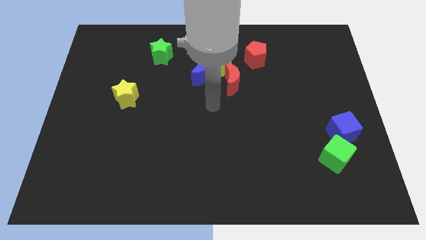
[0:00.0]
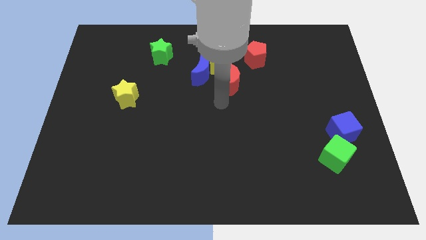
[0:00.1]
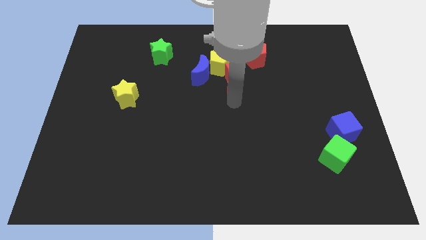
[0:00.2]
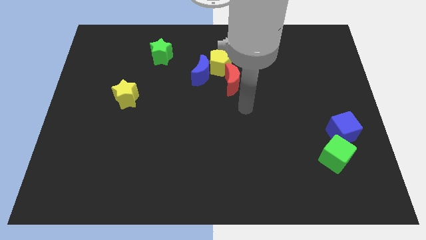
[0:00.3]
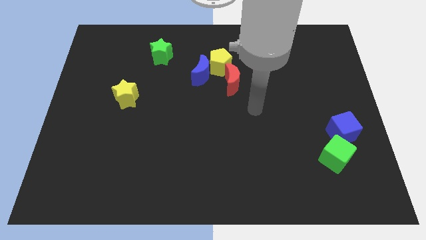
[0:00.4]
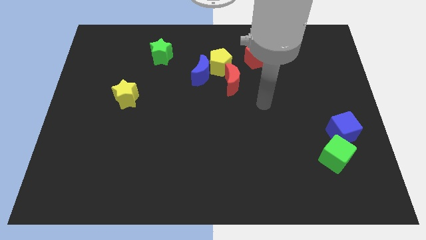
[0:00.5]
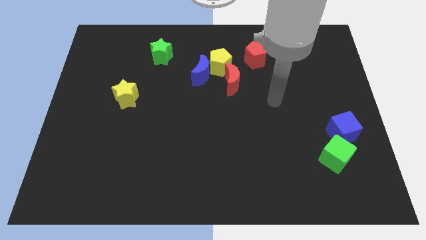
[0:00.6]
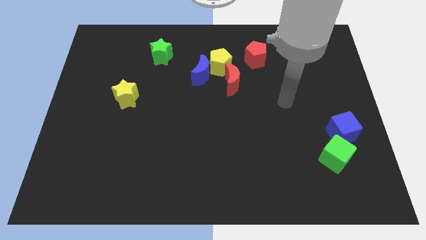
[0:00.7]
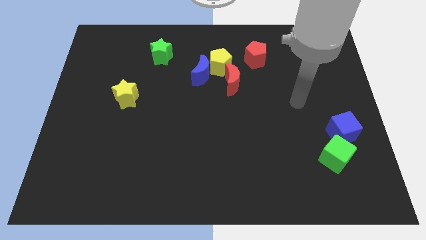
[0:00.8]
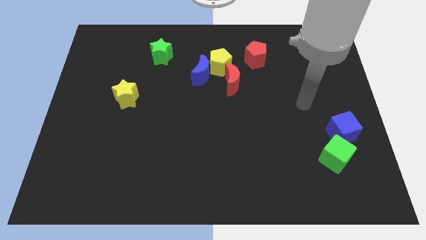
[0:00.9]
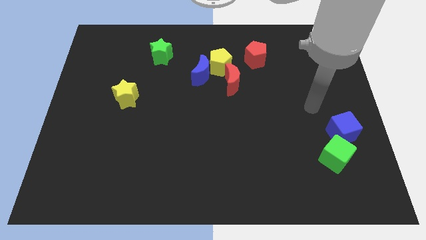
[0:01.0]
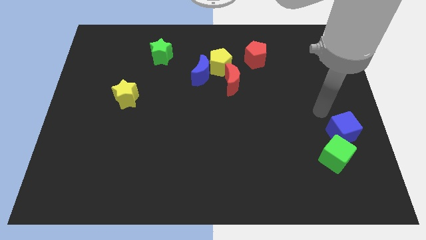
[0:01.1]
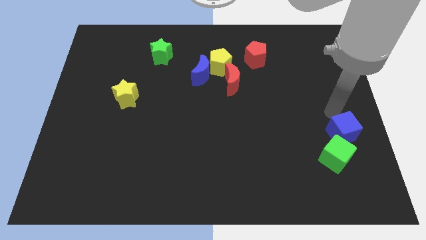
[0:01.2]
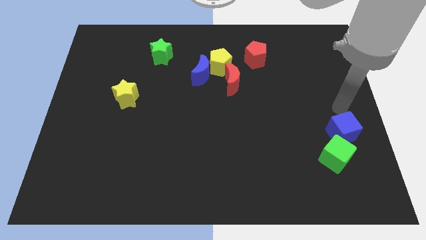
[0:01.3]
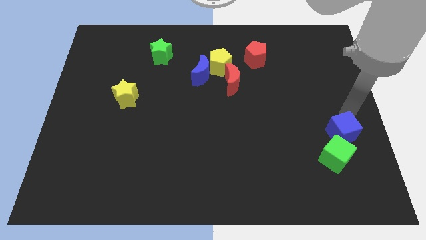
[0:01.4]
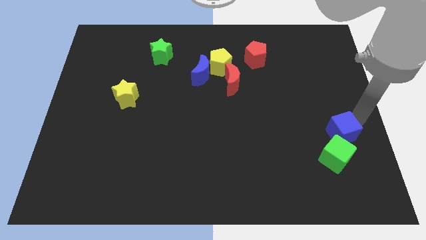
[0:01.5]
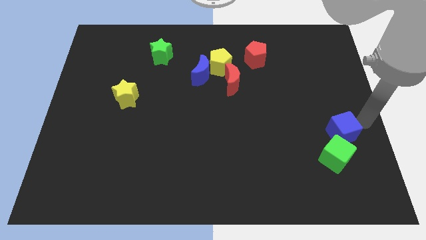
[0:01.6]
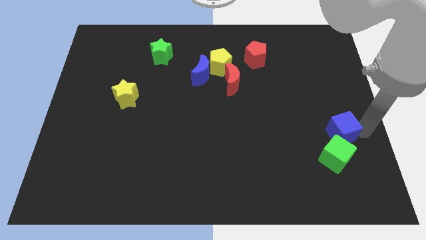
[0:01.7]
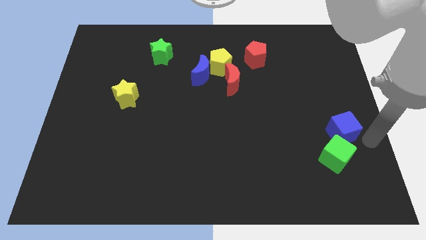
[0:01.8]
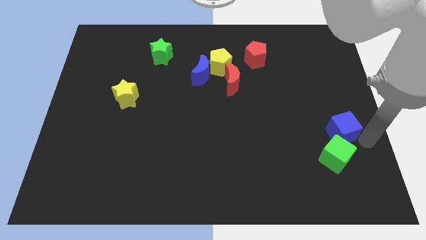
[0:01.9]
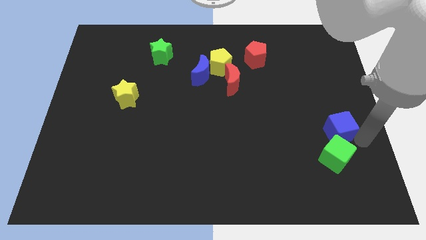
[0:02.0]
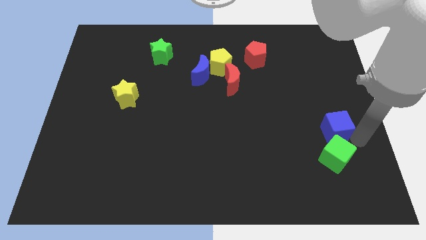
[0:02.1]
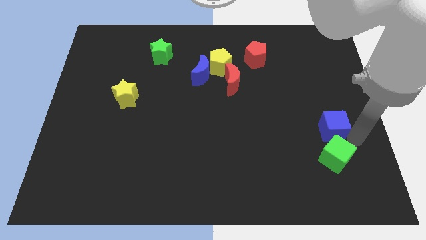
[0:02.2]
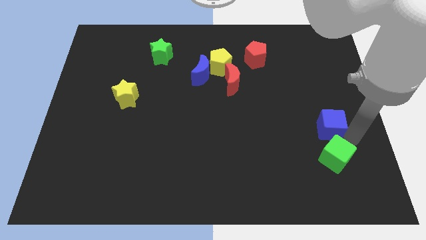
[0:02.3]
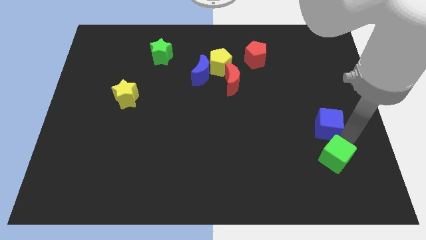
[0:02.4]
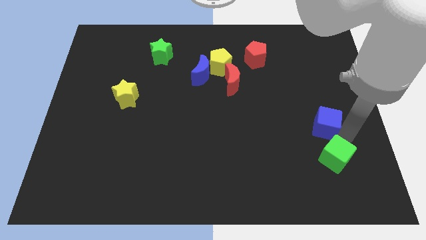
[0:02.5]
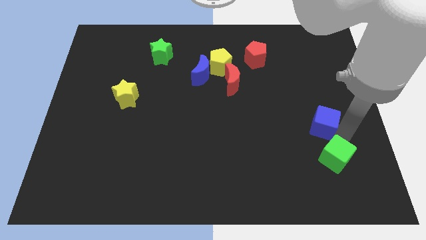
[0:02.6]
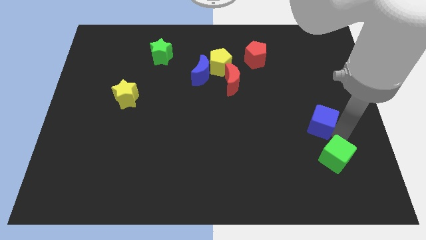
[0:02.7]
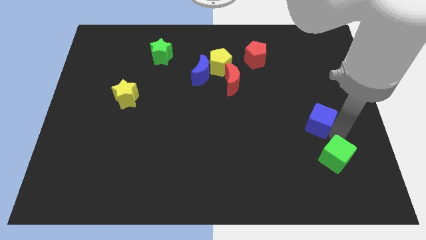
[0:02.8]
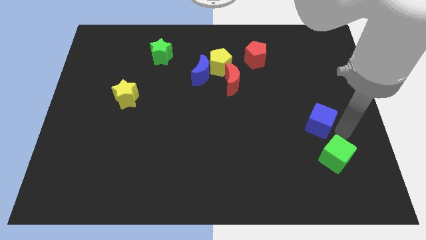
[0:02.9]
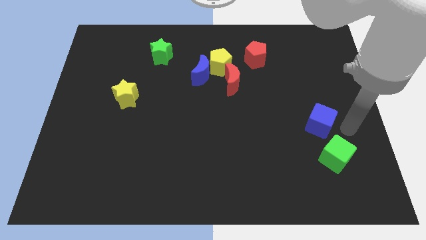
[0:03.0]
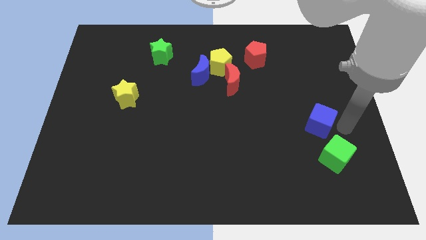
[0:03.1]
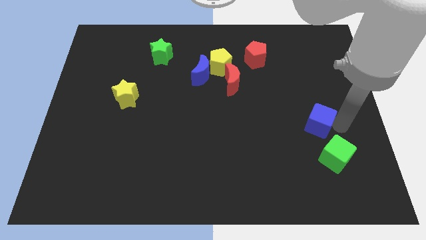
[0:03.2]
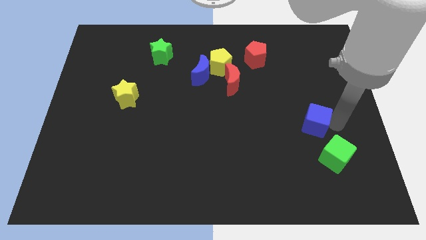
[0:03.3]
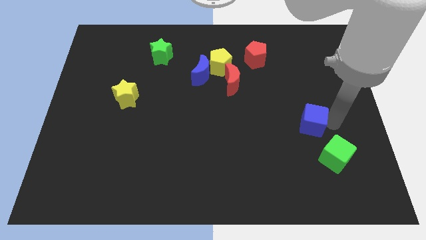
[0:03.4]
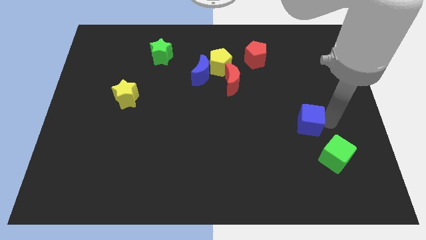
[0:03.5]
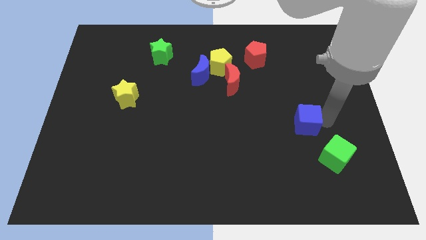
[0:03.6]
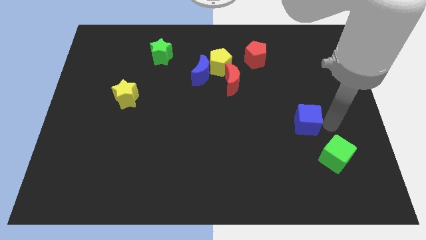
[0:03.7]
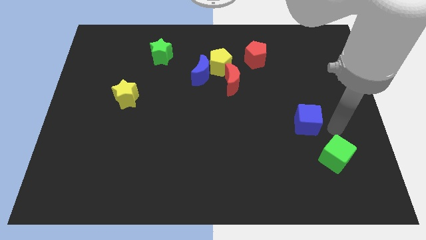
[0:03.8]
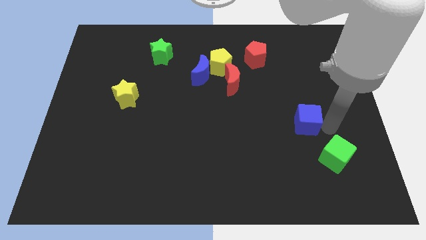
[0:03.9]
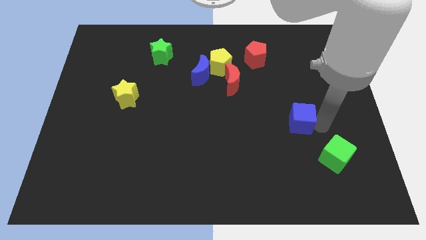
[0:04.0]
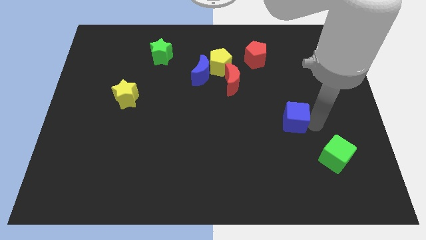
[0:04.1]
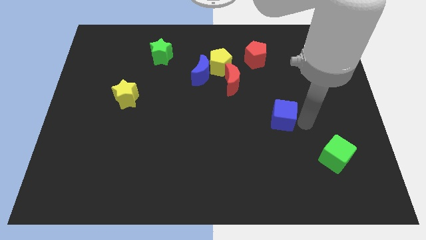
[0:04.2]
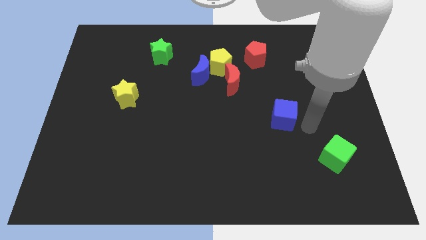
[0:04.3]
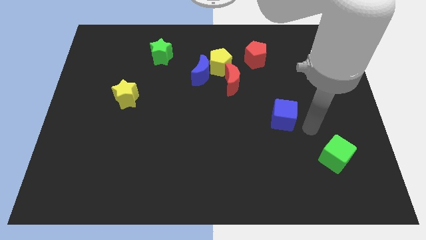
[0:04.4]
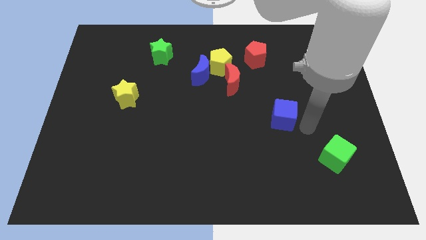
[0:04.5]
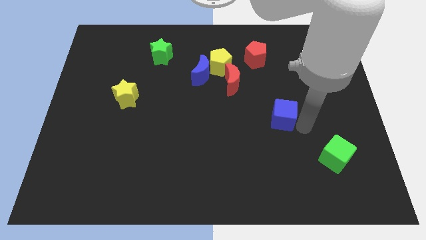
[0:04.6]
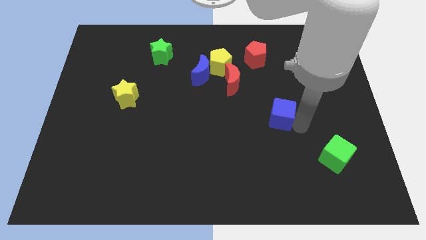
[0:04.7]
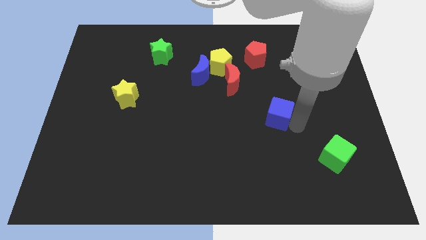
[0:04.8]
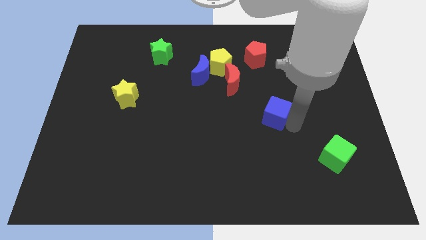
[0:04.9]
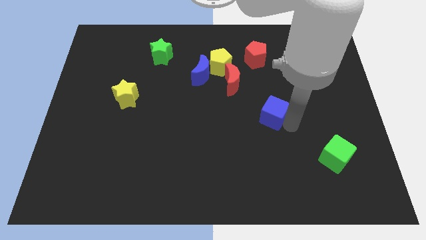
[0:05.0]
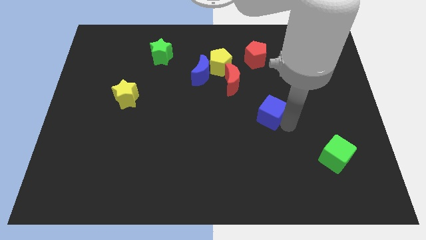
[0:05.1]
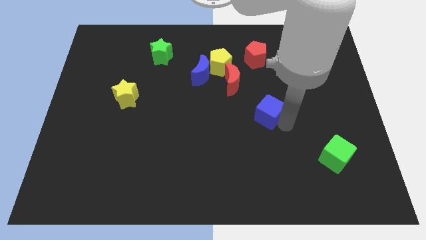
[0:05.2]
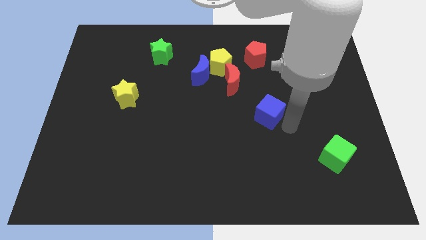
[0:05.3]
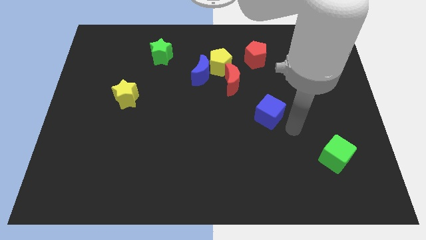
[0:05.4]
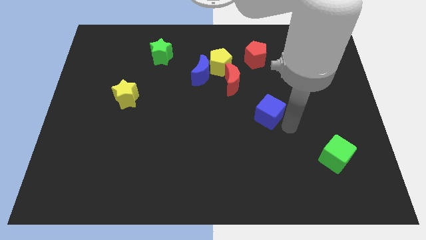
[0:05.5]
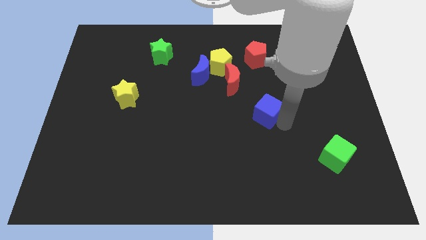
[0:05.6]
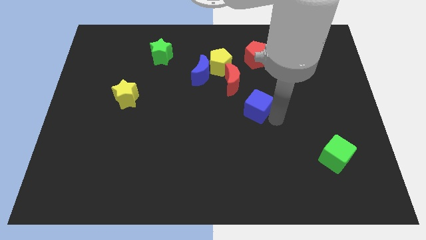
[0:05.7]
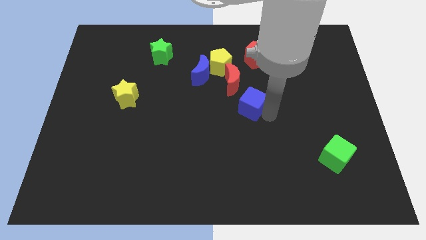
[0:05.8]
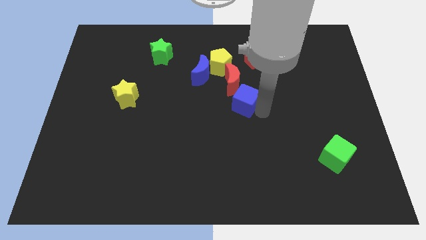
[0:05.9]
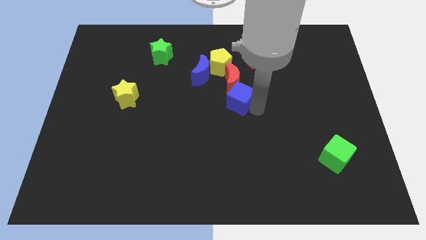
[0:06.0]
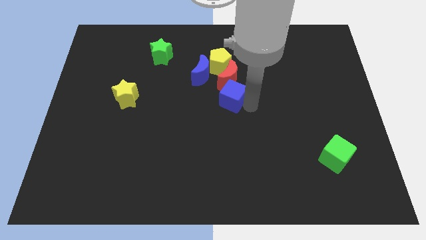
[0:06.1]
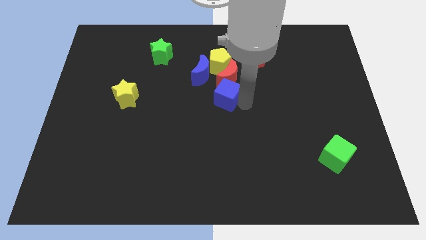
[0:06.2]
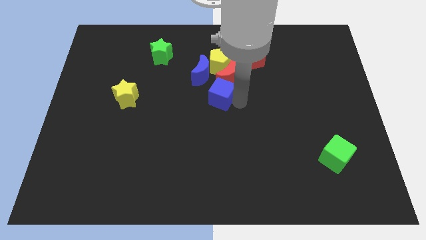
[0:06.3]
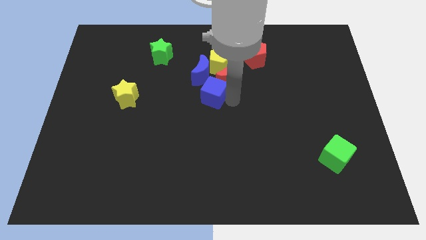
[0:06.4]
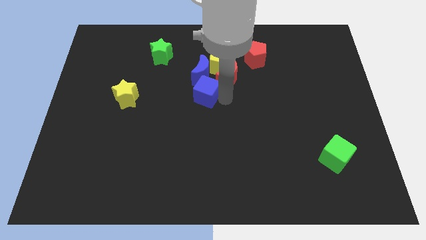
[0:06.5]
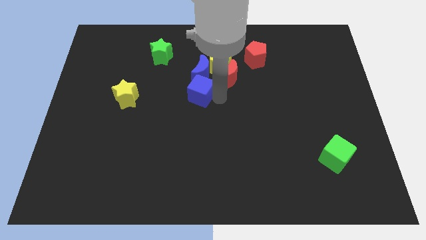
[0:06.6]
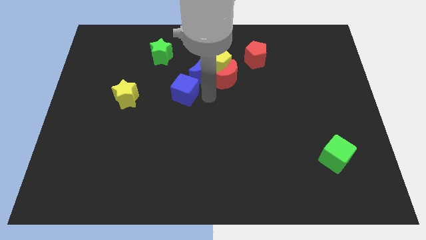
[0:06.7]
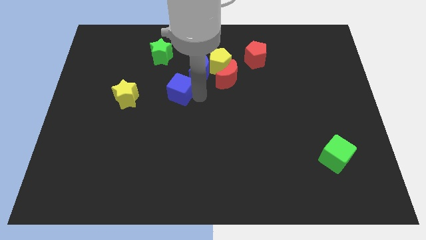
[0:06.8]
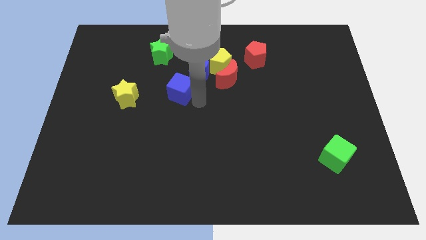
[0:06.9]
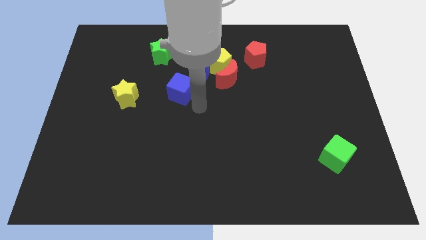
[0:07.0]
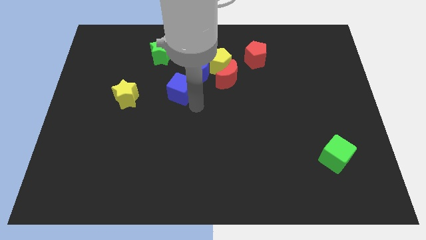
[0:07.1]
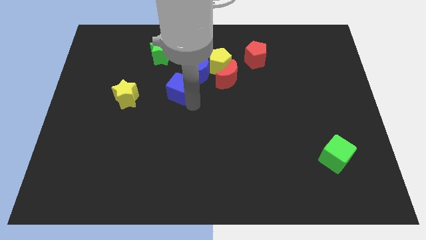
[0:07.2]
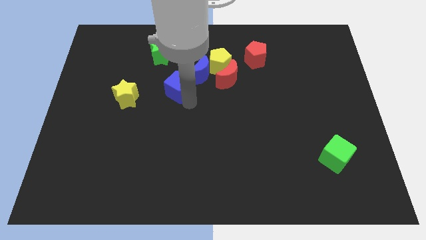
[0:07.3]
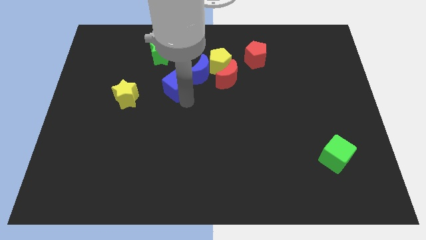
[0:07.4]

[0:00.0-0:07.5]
slide the blue cube to the left of the blue moon

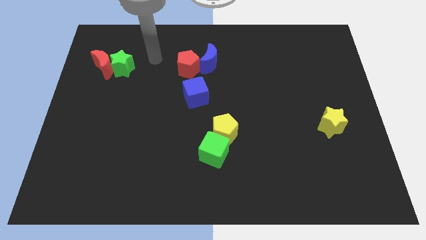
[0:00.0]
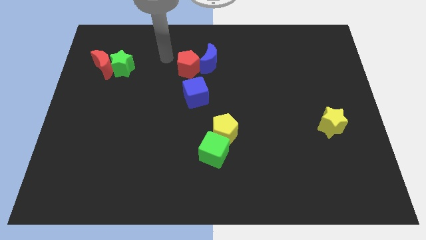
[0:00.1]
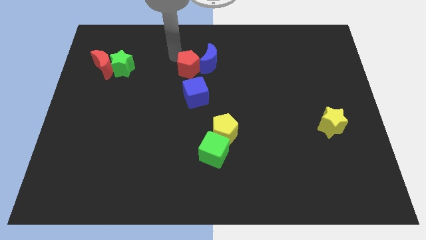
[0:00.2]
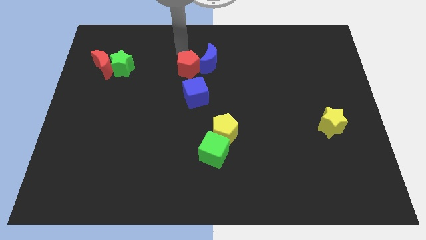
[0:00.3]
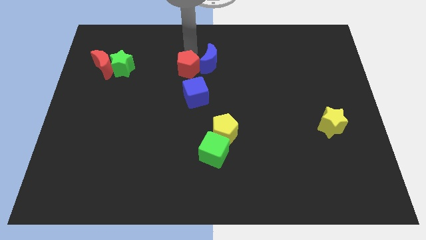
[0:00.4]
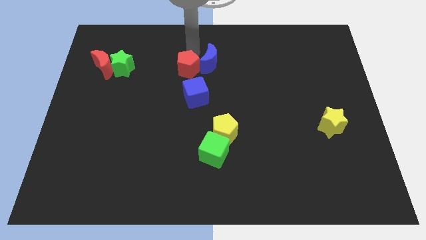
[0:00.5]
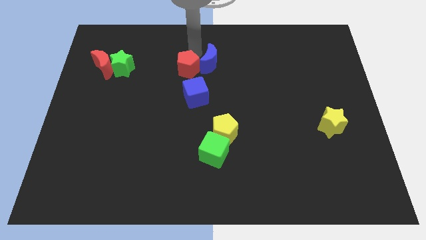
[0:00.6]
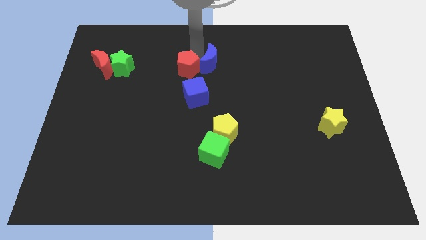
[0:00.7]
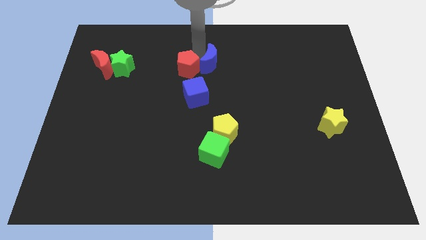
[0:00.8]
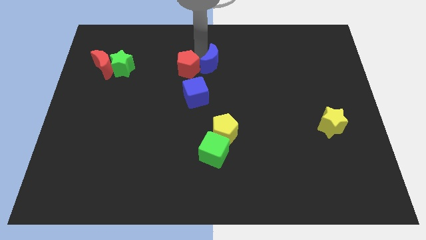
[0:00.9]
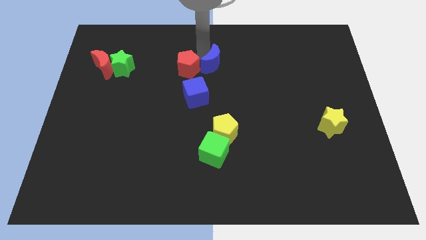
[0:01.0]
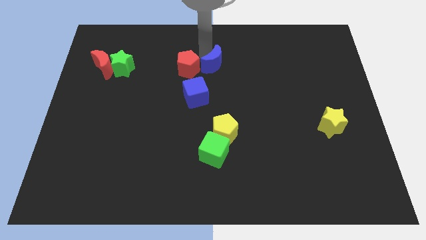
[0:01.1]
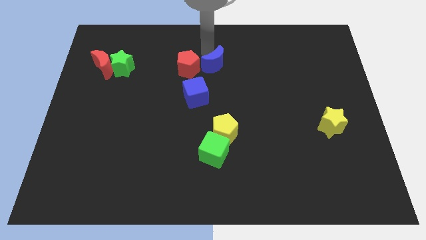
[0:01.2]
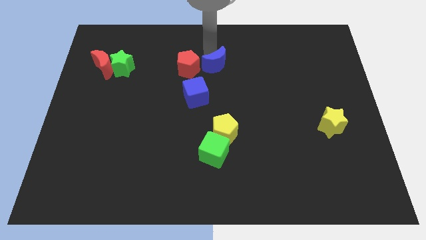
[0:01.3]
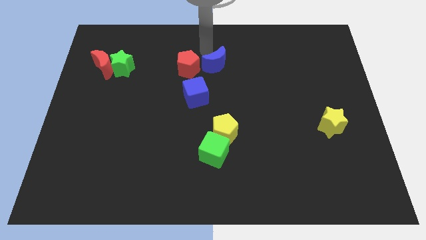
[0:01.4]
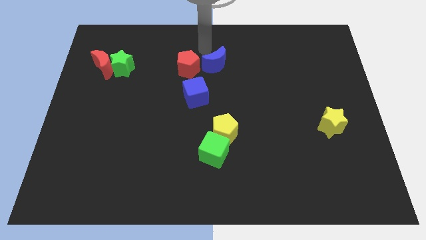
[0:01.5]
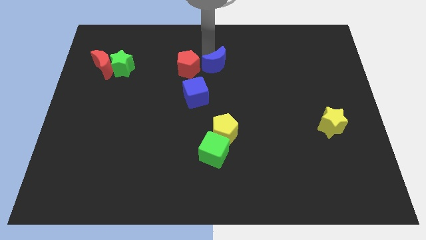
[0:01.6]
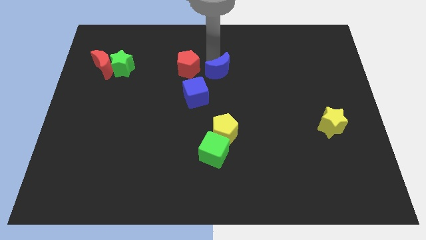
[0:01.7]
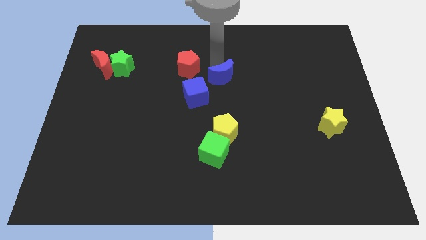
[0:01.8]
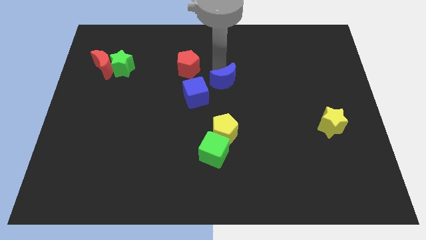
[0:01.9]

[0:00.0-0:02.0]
push the blue moon to the right side of the blue cube
